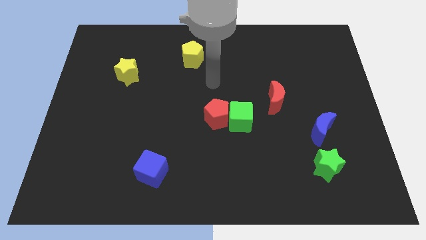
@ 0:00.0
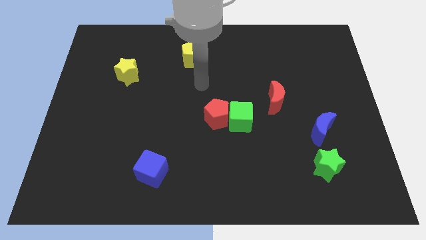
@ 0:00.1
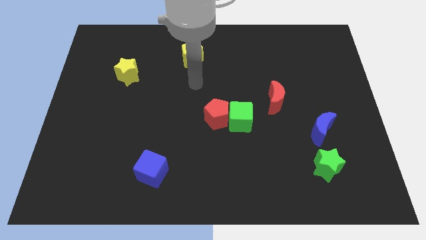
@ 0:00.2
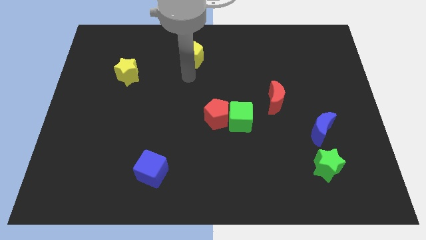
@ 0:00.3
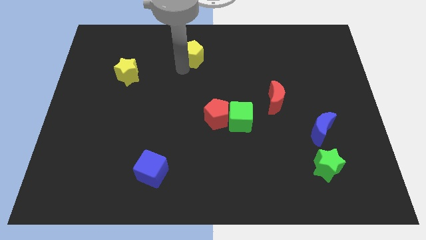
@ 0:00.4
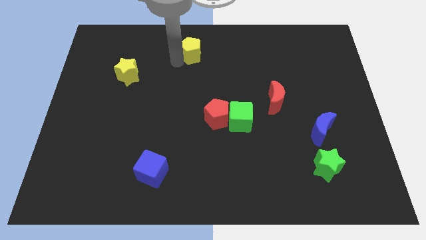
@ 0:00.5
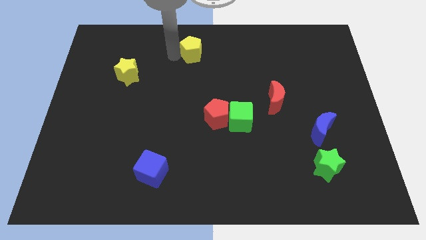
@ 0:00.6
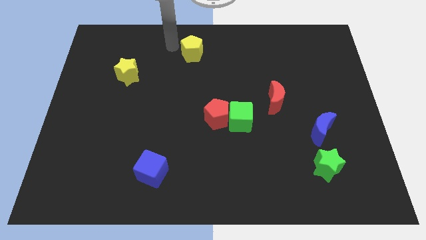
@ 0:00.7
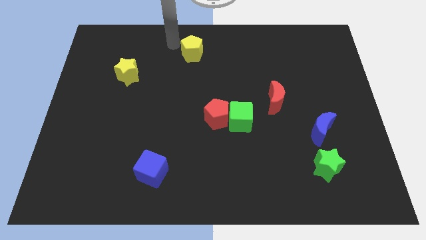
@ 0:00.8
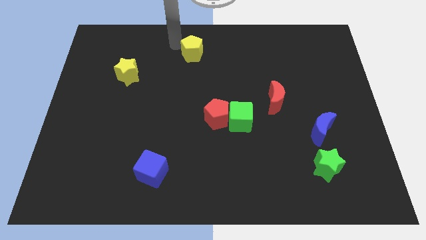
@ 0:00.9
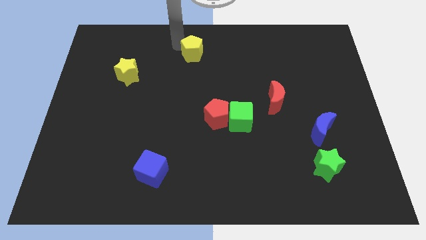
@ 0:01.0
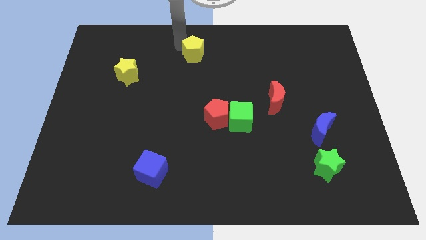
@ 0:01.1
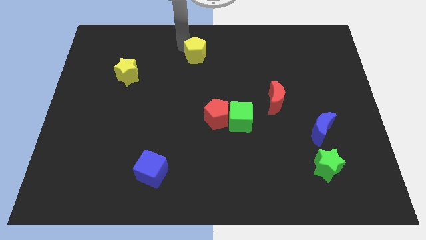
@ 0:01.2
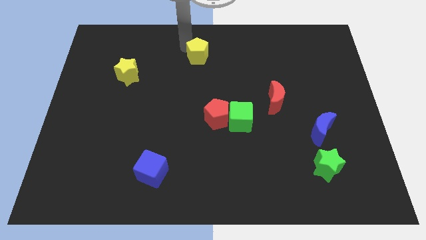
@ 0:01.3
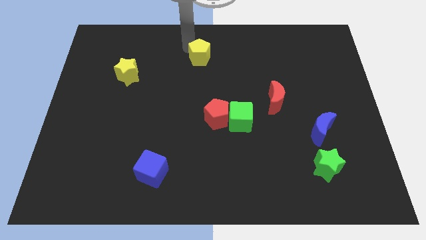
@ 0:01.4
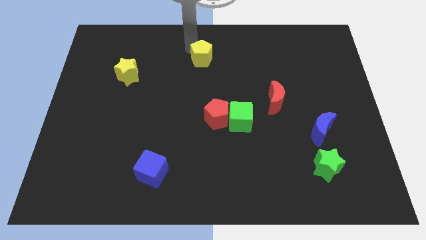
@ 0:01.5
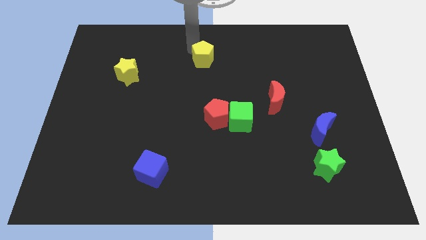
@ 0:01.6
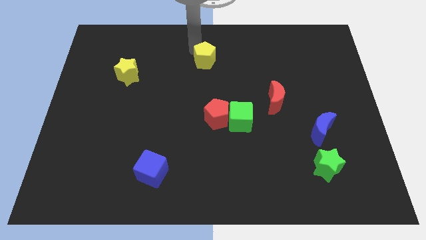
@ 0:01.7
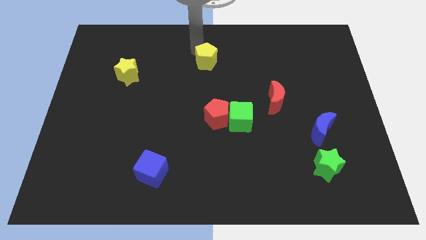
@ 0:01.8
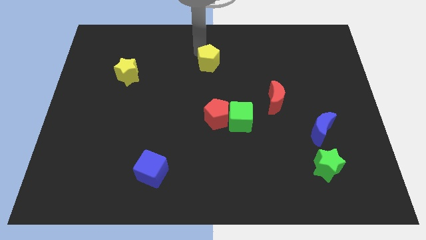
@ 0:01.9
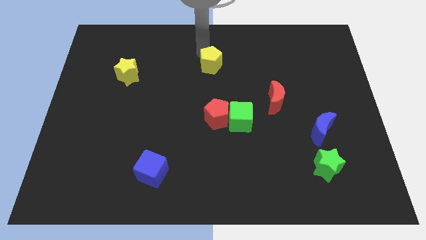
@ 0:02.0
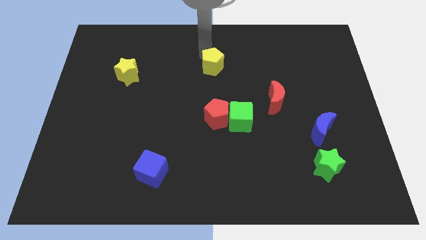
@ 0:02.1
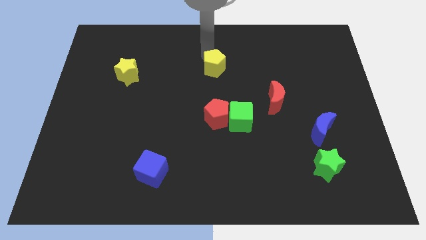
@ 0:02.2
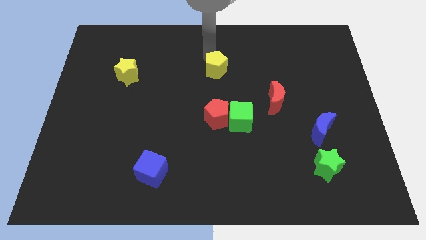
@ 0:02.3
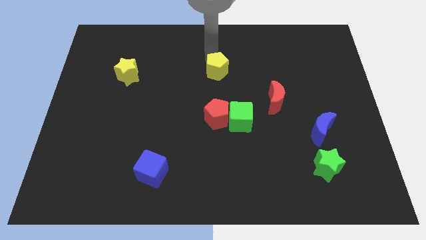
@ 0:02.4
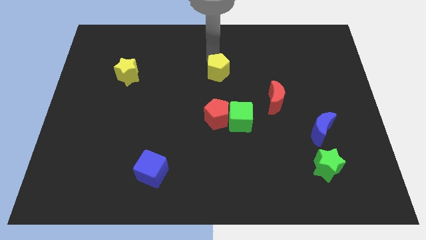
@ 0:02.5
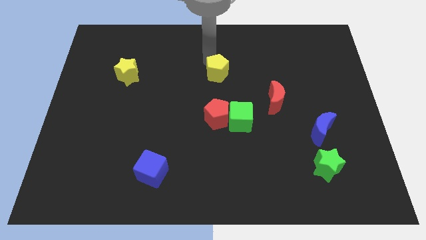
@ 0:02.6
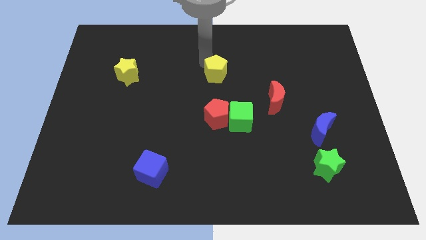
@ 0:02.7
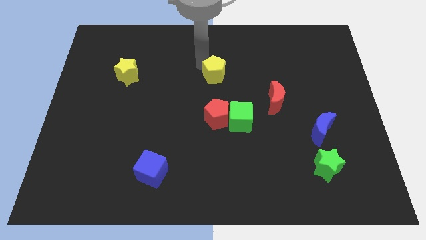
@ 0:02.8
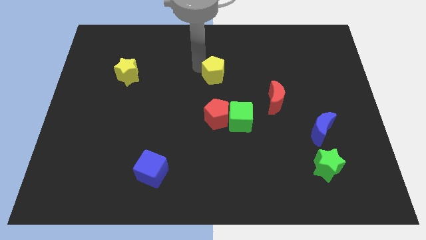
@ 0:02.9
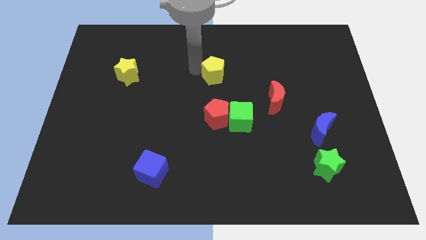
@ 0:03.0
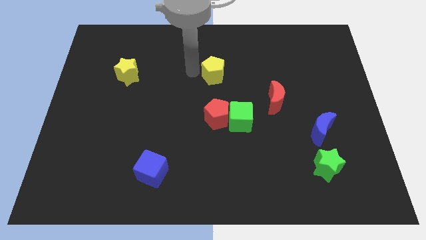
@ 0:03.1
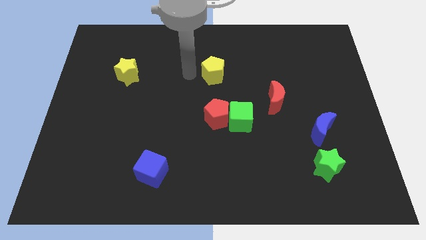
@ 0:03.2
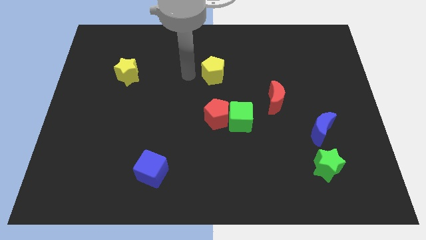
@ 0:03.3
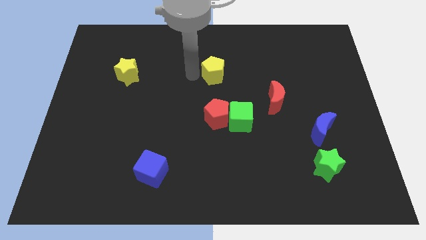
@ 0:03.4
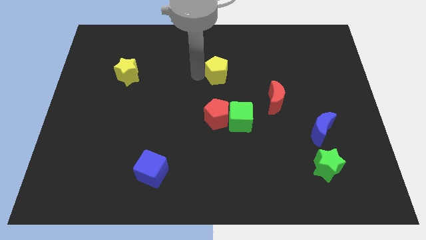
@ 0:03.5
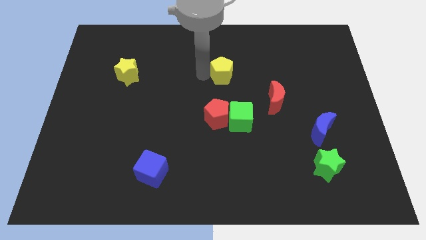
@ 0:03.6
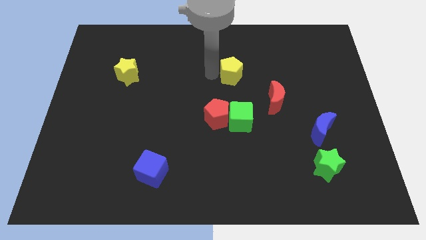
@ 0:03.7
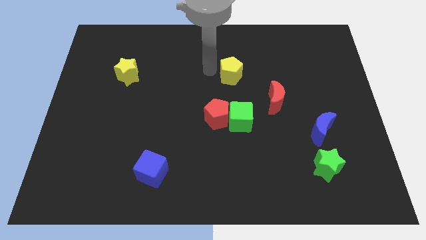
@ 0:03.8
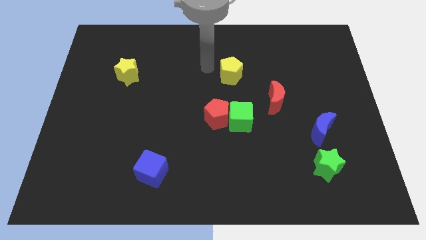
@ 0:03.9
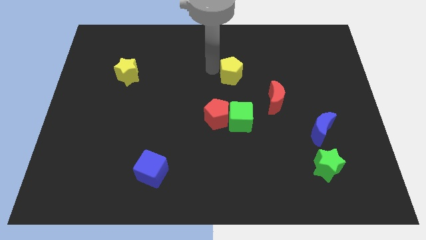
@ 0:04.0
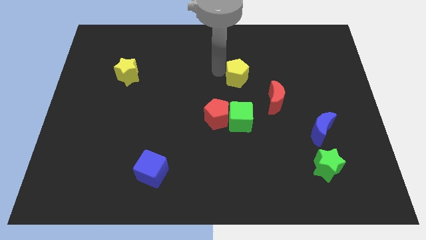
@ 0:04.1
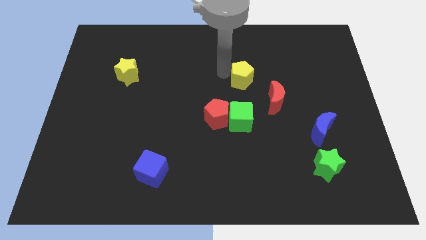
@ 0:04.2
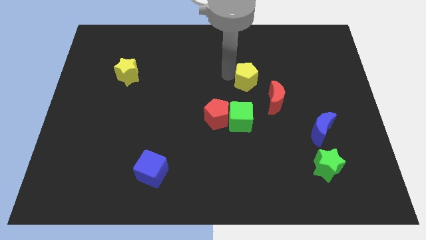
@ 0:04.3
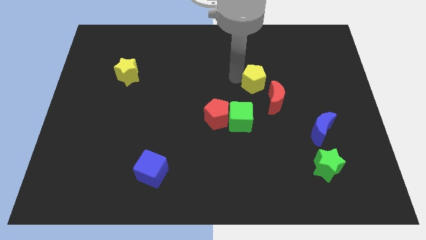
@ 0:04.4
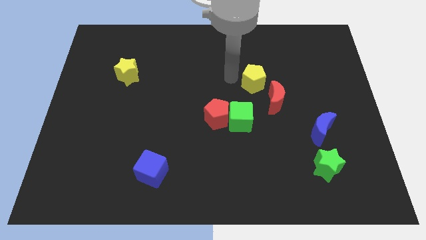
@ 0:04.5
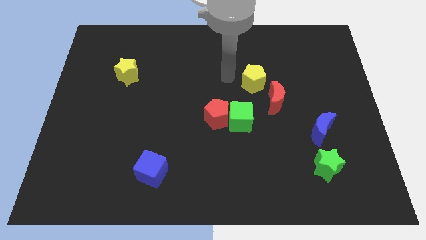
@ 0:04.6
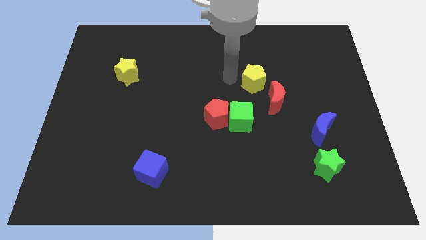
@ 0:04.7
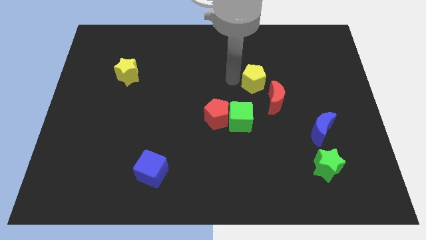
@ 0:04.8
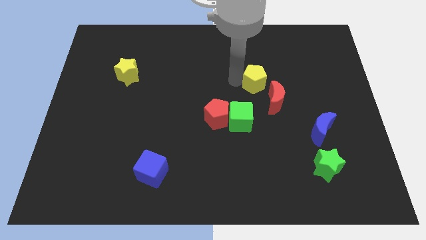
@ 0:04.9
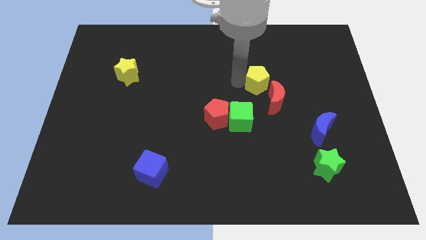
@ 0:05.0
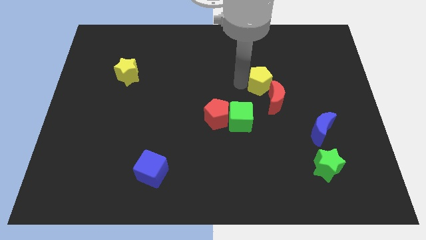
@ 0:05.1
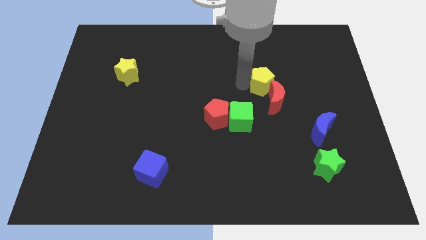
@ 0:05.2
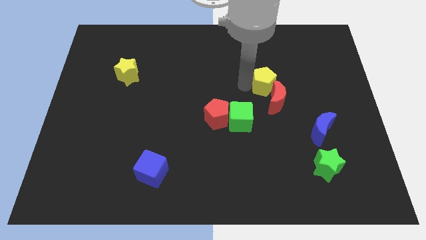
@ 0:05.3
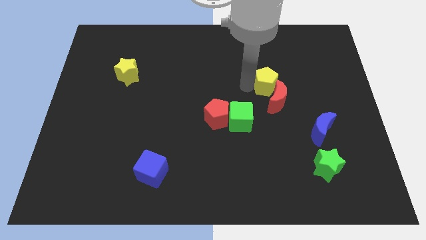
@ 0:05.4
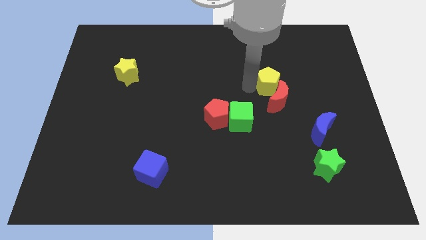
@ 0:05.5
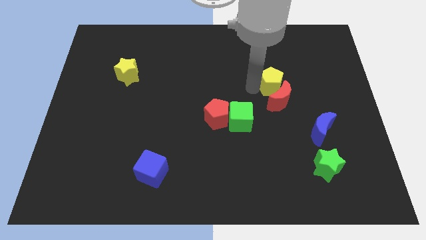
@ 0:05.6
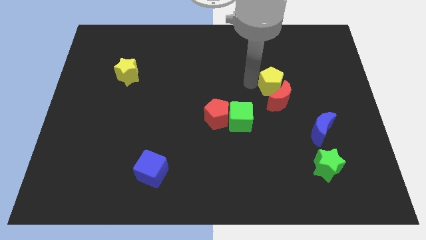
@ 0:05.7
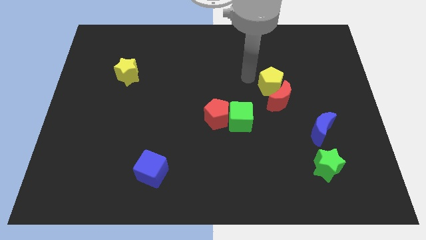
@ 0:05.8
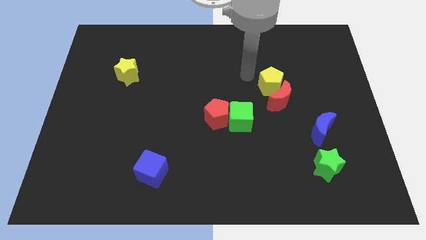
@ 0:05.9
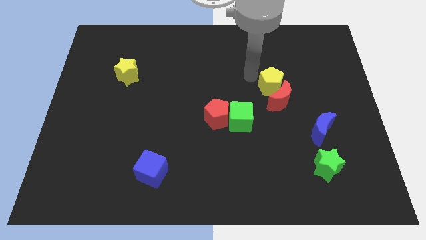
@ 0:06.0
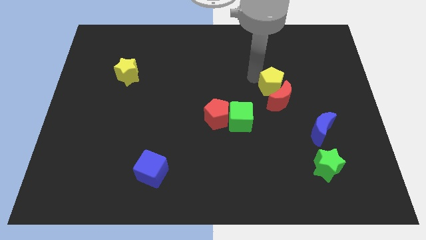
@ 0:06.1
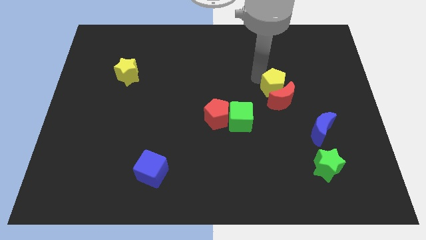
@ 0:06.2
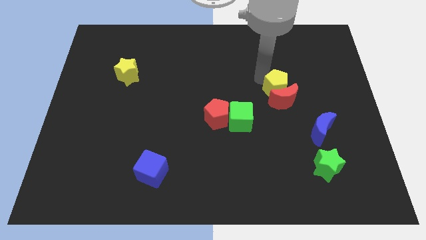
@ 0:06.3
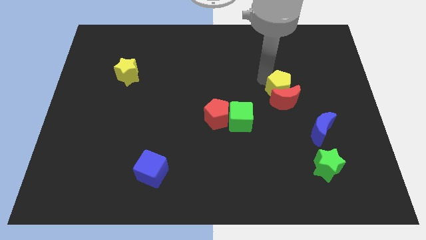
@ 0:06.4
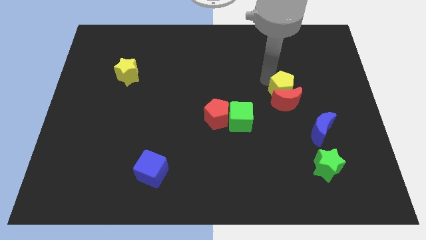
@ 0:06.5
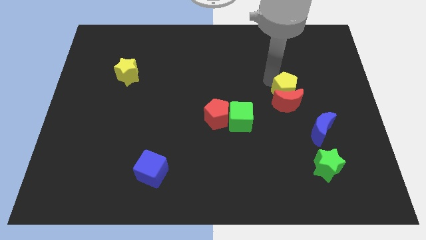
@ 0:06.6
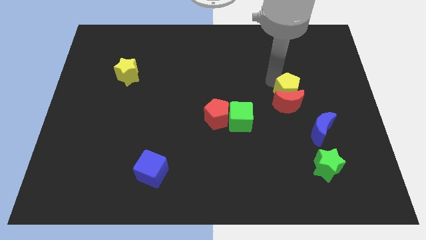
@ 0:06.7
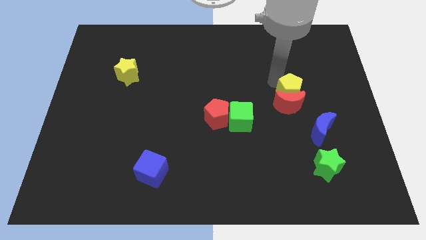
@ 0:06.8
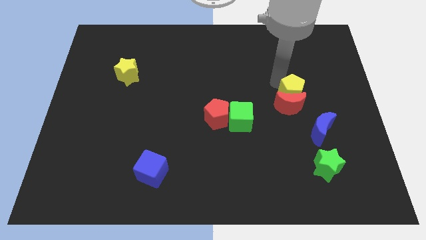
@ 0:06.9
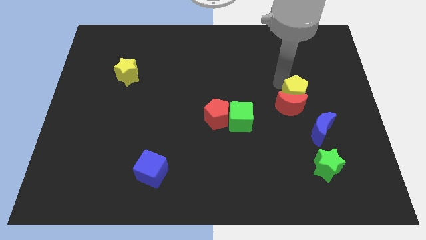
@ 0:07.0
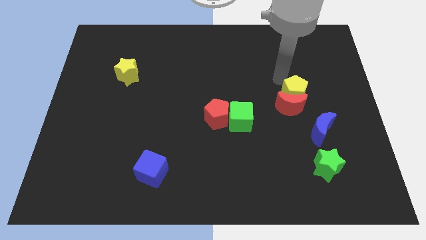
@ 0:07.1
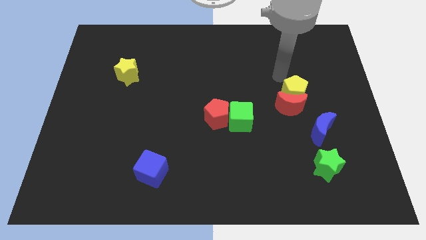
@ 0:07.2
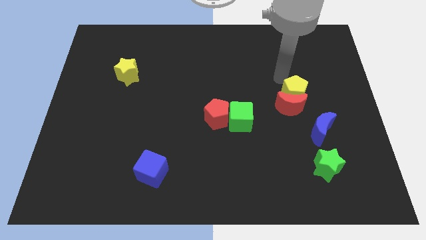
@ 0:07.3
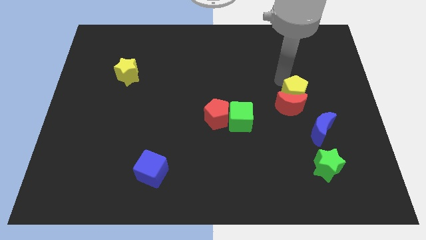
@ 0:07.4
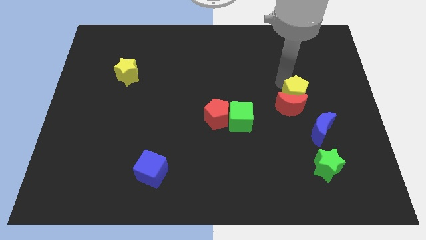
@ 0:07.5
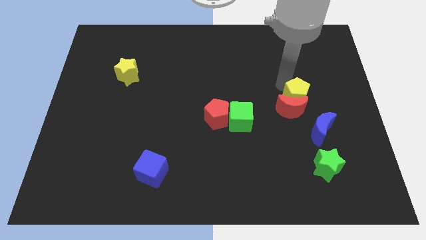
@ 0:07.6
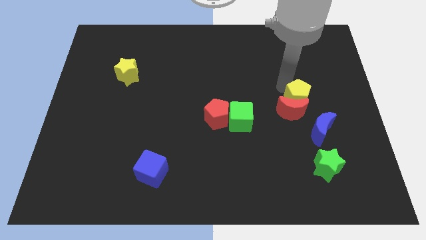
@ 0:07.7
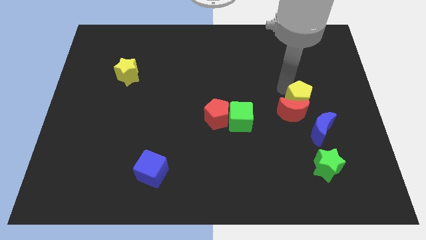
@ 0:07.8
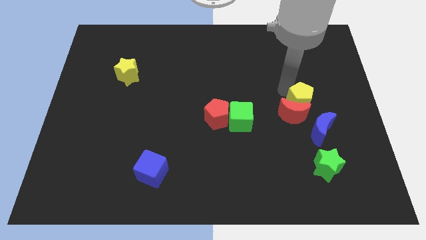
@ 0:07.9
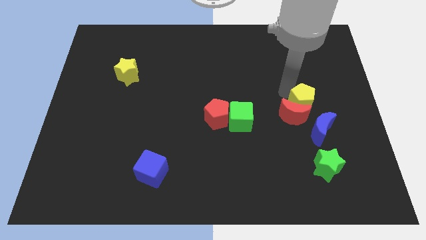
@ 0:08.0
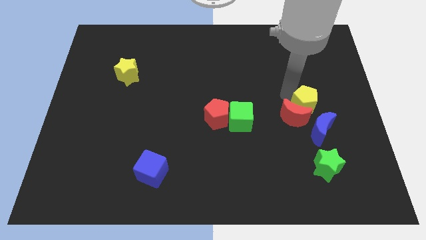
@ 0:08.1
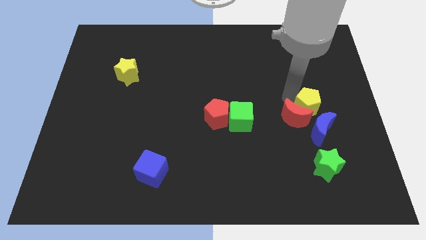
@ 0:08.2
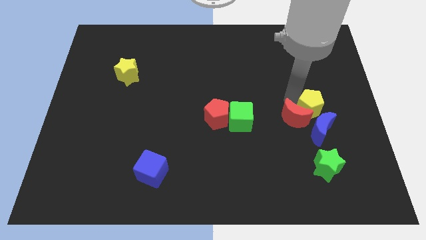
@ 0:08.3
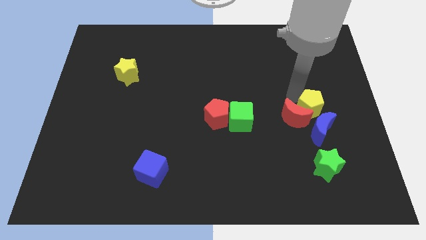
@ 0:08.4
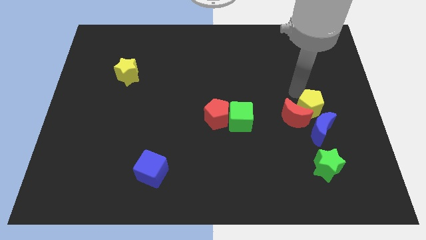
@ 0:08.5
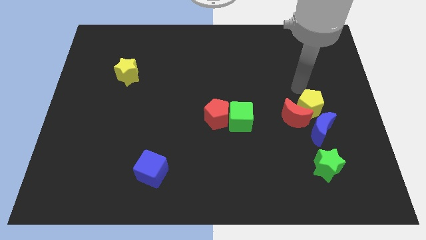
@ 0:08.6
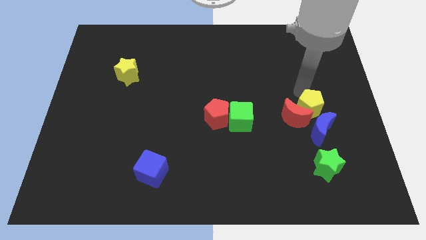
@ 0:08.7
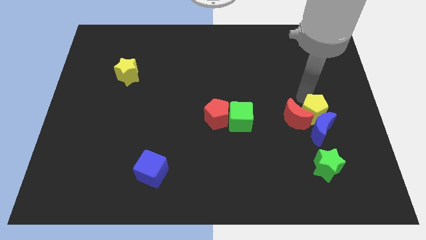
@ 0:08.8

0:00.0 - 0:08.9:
slide the yellow pentagon next to the blue moon
